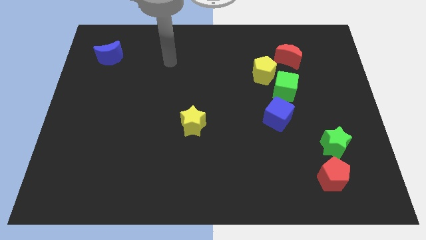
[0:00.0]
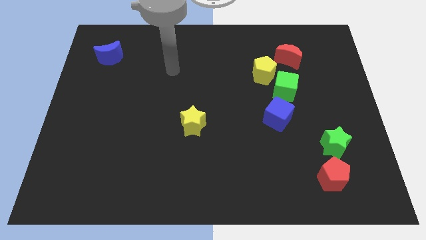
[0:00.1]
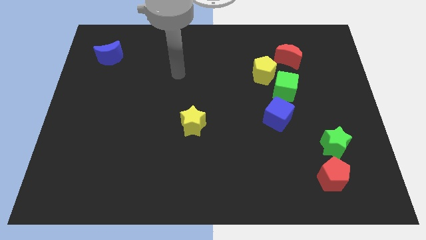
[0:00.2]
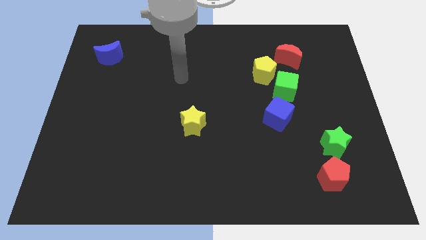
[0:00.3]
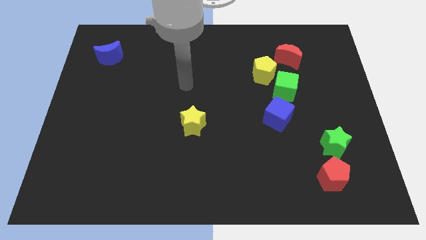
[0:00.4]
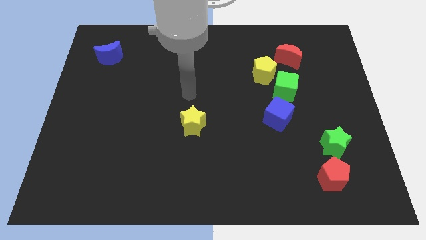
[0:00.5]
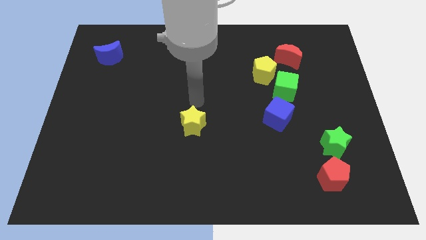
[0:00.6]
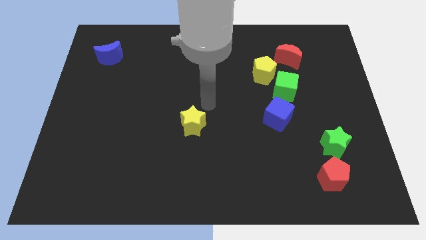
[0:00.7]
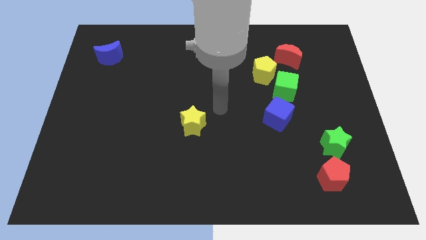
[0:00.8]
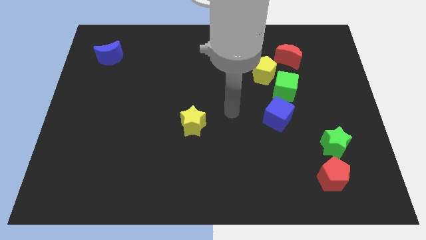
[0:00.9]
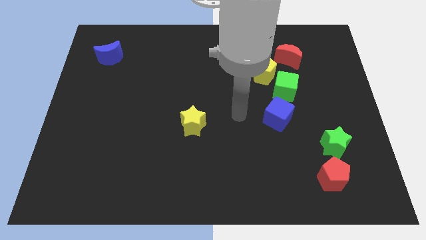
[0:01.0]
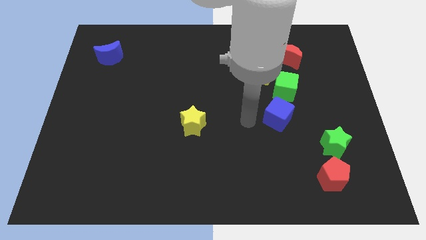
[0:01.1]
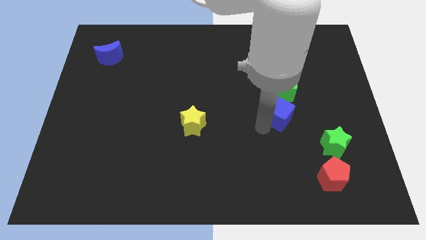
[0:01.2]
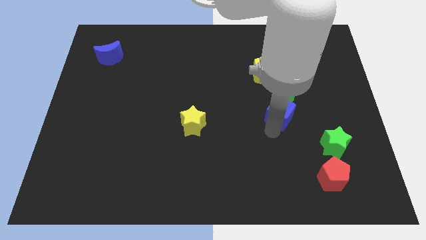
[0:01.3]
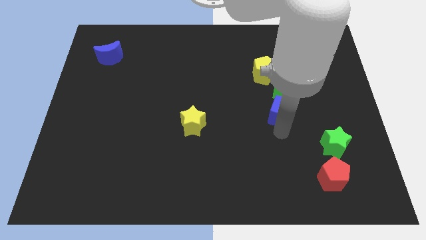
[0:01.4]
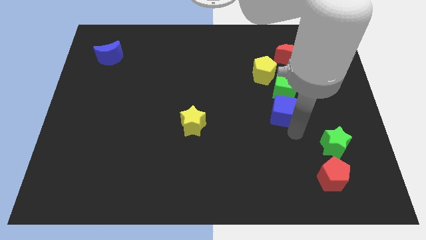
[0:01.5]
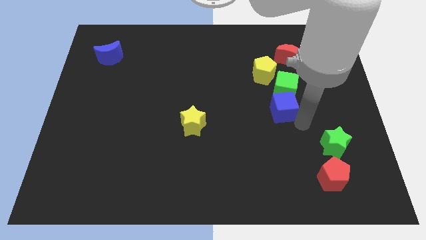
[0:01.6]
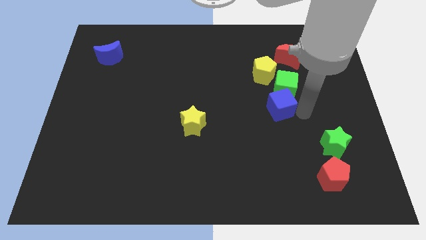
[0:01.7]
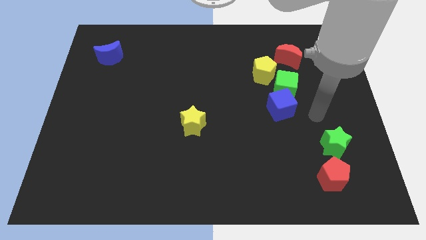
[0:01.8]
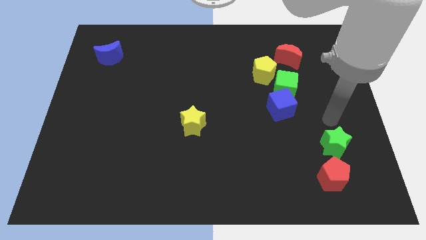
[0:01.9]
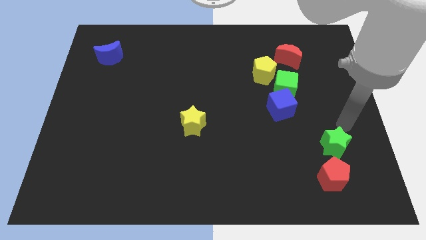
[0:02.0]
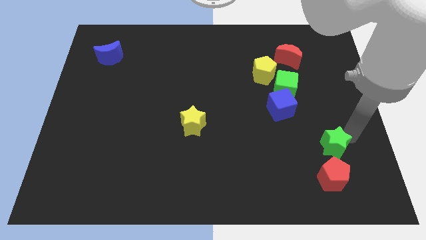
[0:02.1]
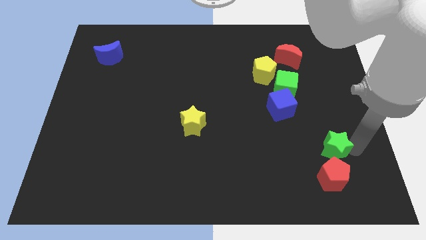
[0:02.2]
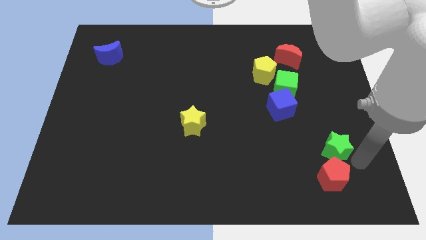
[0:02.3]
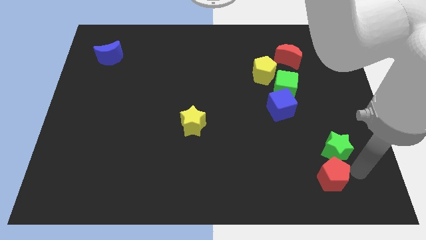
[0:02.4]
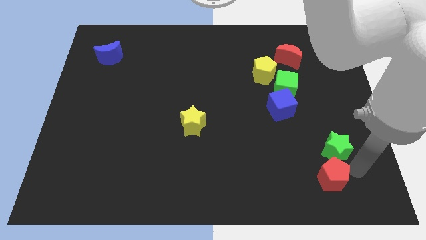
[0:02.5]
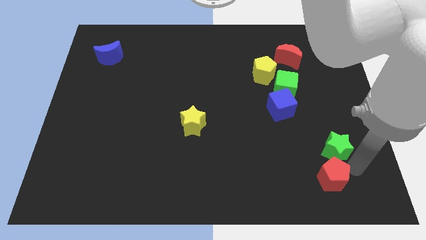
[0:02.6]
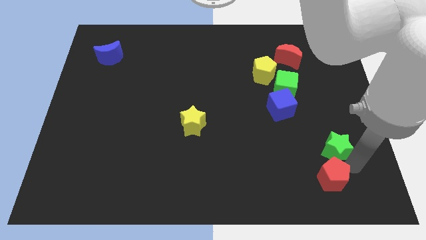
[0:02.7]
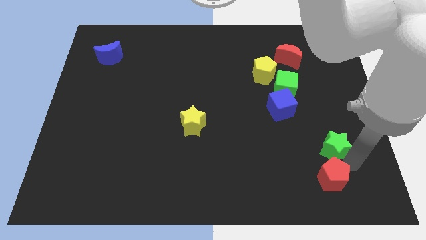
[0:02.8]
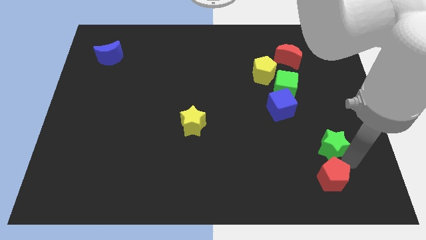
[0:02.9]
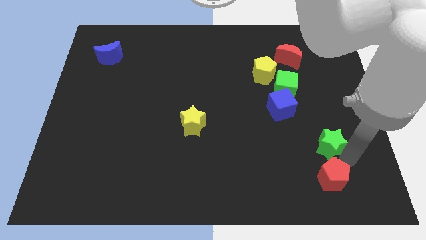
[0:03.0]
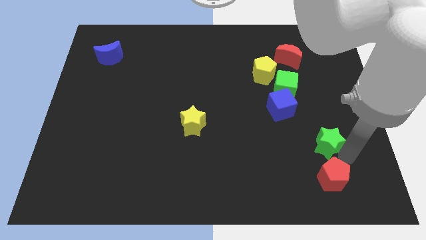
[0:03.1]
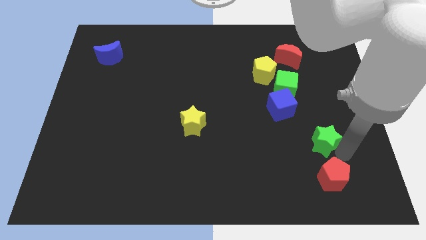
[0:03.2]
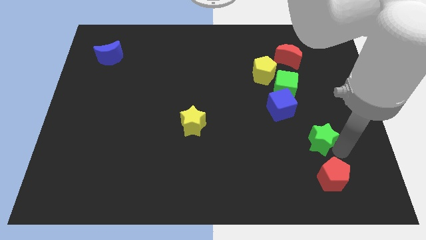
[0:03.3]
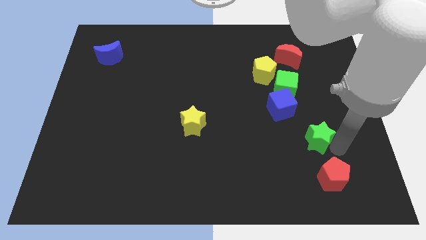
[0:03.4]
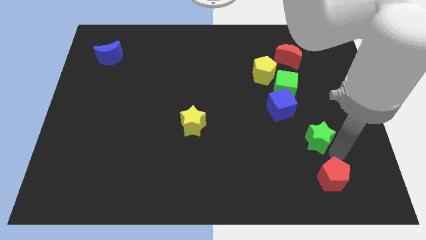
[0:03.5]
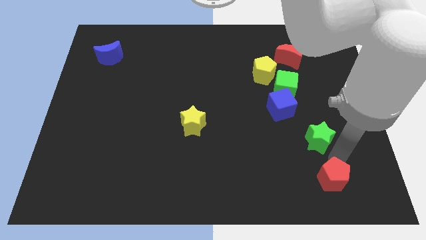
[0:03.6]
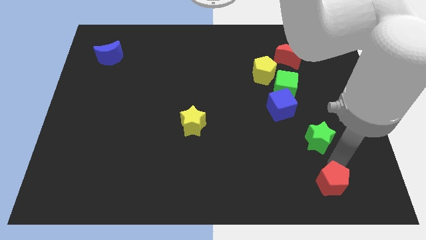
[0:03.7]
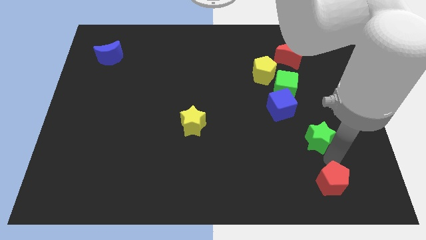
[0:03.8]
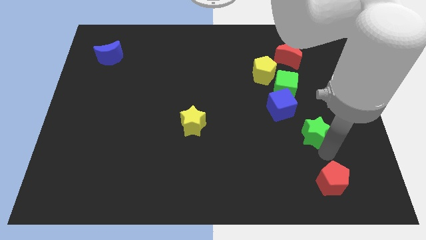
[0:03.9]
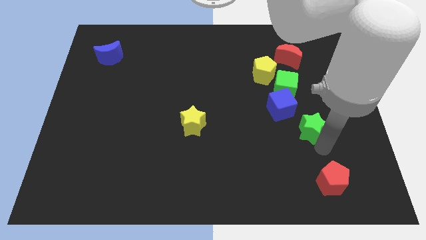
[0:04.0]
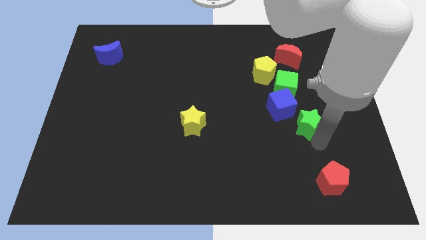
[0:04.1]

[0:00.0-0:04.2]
push the green star up and then to the left a bit

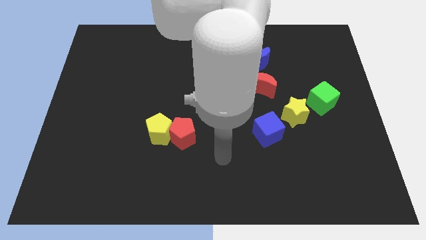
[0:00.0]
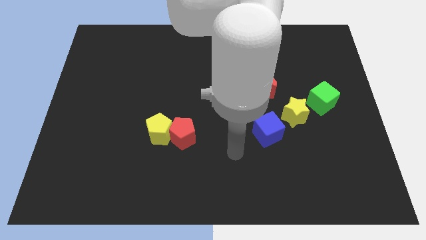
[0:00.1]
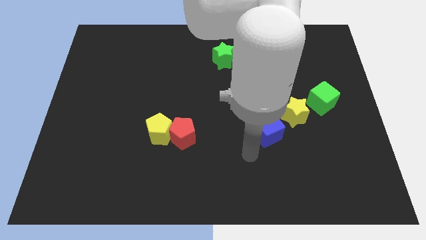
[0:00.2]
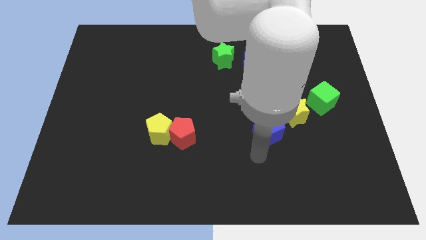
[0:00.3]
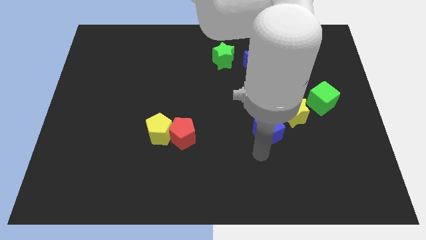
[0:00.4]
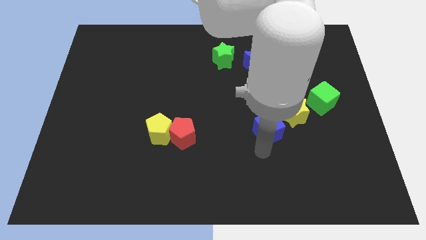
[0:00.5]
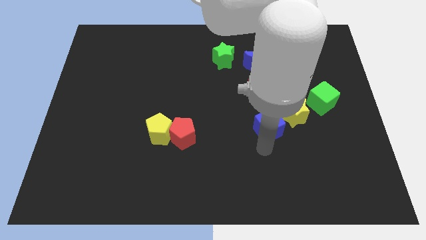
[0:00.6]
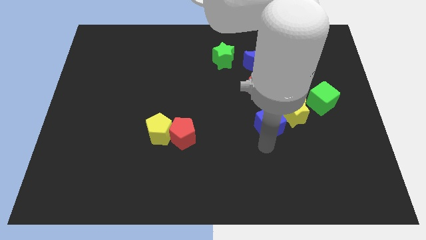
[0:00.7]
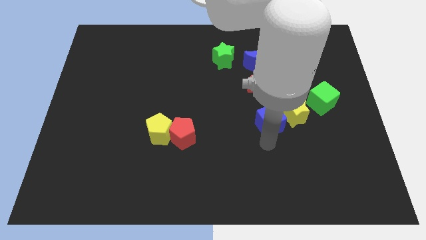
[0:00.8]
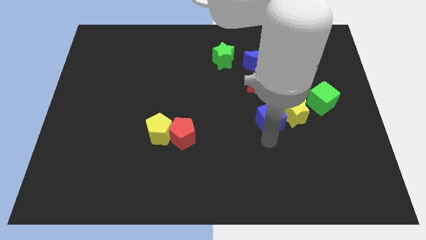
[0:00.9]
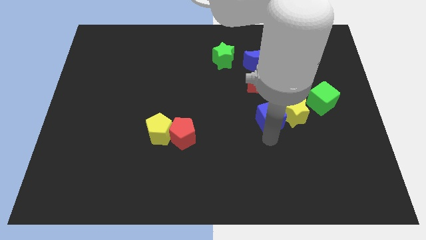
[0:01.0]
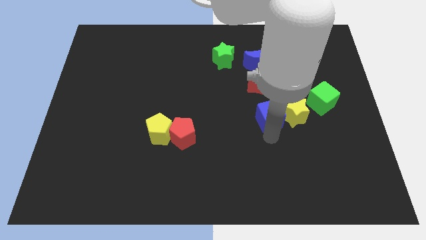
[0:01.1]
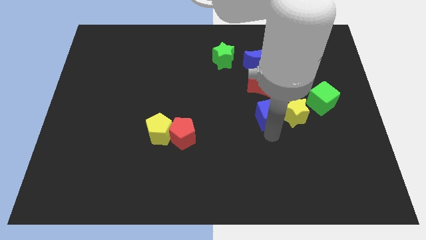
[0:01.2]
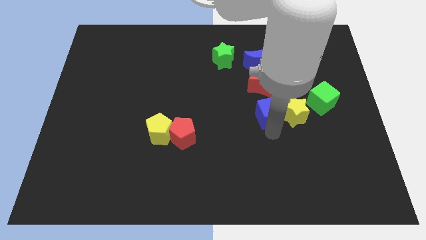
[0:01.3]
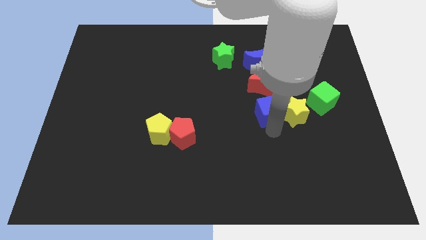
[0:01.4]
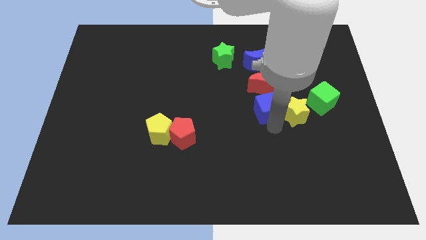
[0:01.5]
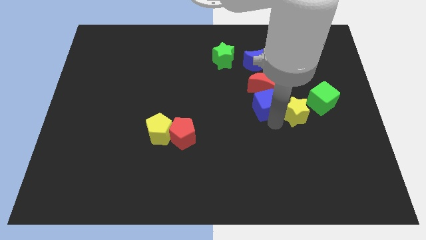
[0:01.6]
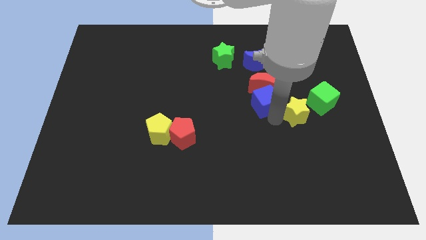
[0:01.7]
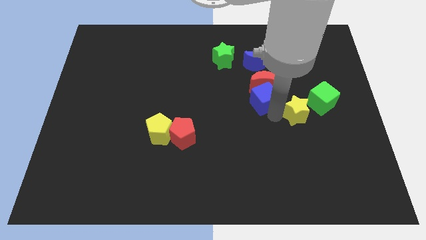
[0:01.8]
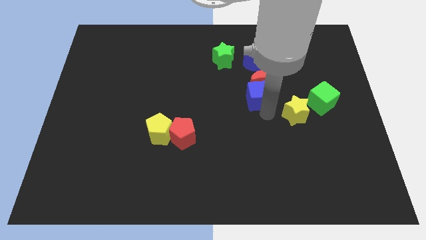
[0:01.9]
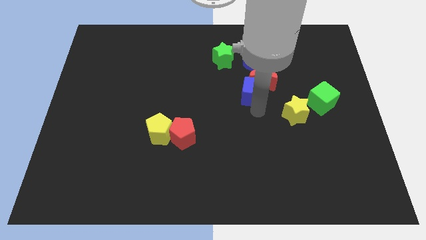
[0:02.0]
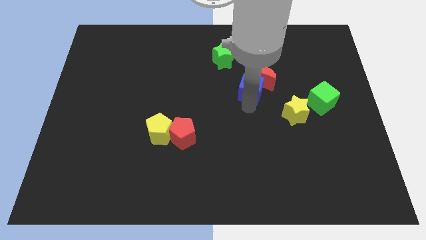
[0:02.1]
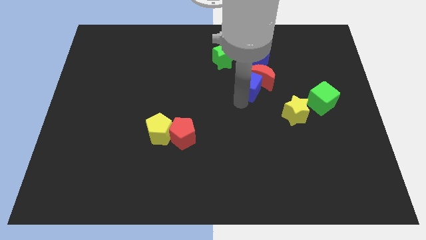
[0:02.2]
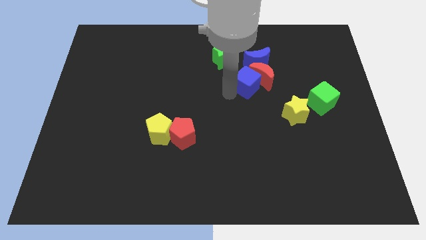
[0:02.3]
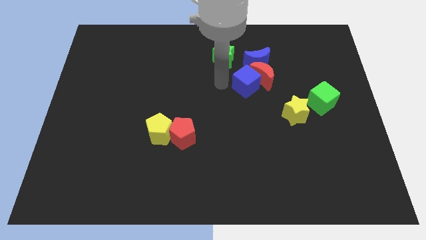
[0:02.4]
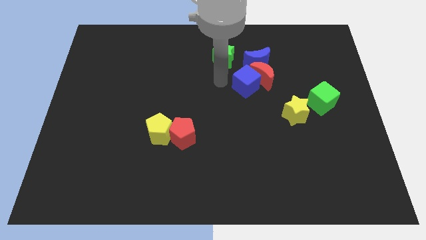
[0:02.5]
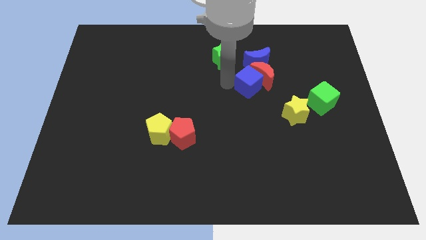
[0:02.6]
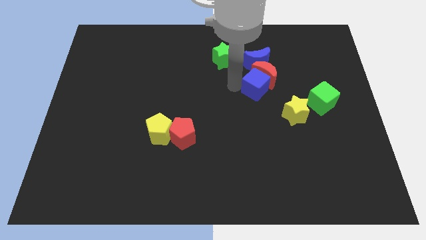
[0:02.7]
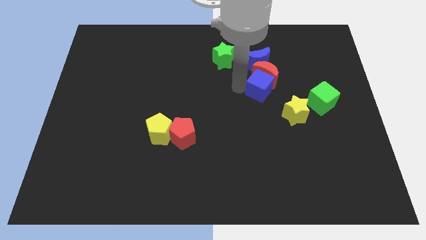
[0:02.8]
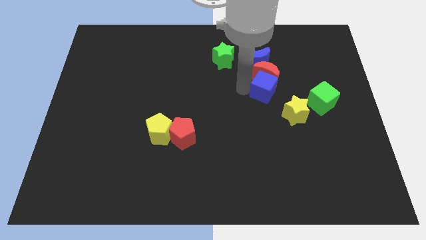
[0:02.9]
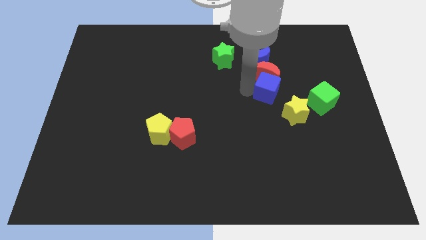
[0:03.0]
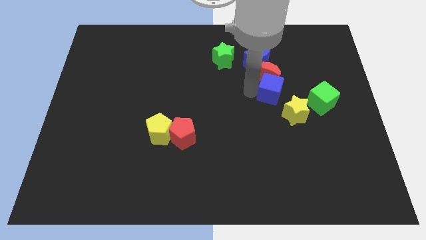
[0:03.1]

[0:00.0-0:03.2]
push the blue cube diagonally upwards and right a little bit

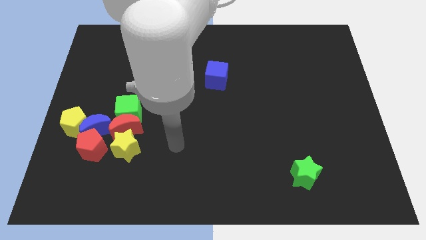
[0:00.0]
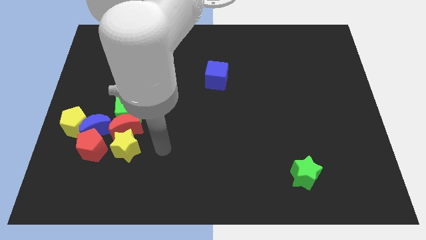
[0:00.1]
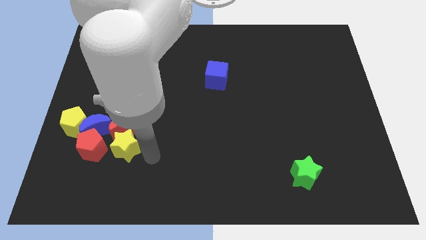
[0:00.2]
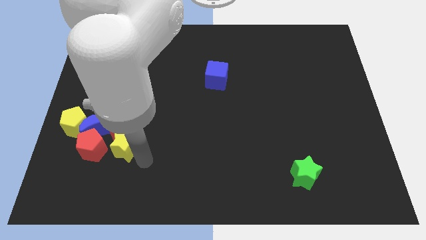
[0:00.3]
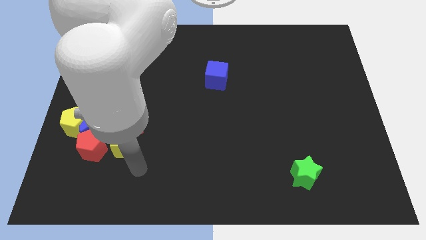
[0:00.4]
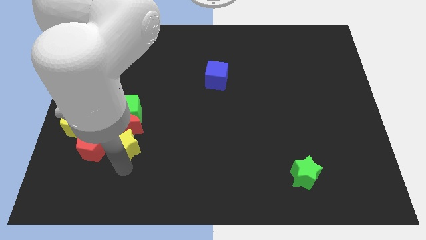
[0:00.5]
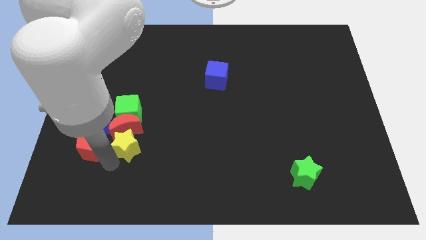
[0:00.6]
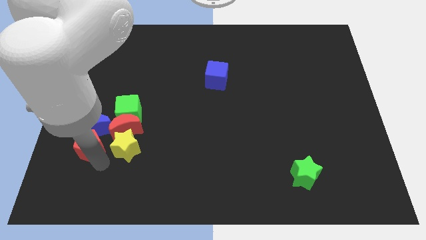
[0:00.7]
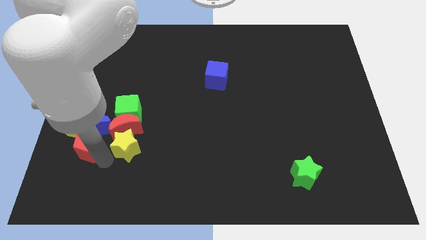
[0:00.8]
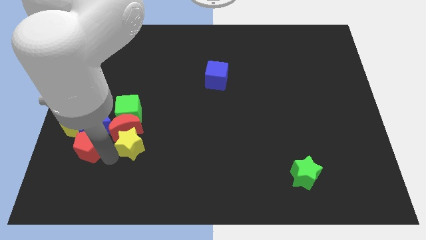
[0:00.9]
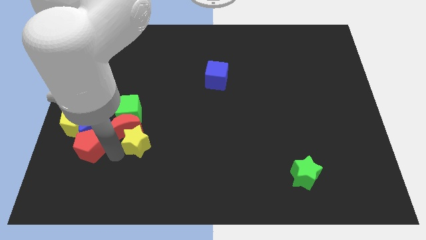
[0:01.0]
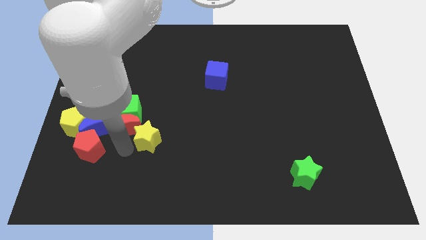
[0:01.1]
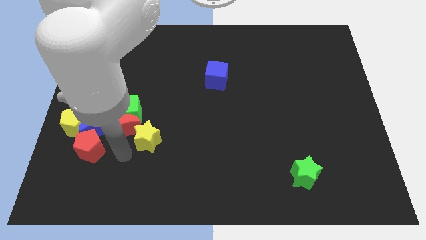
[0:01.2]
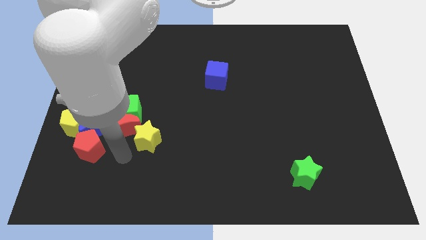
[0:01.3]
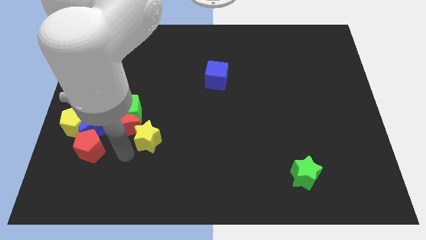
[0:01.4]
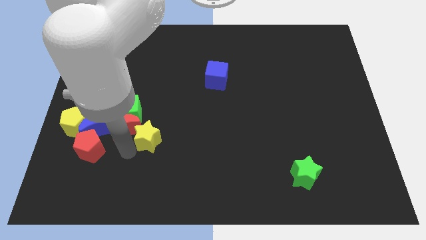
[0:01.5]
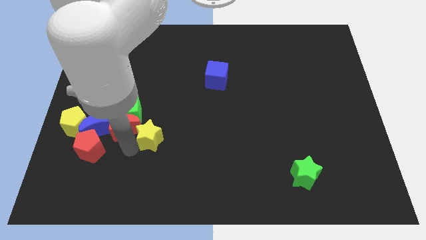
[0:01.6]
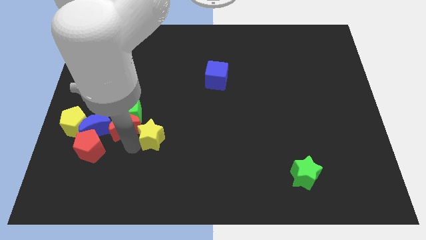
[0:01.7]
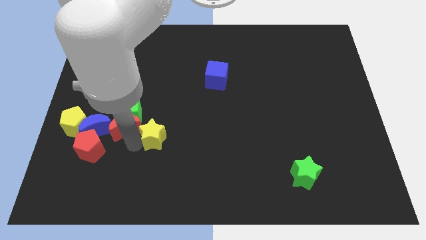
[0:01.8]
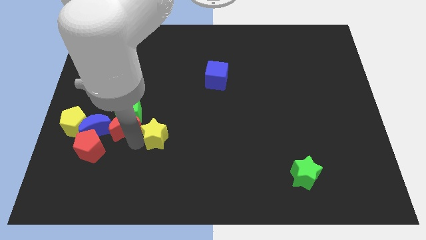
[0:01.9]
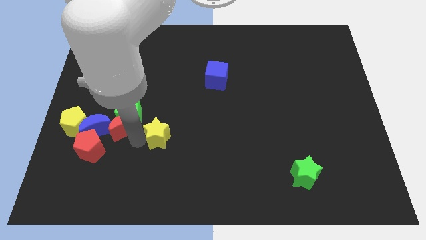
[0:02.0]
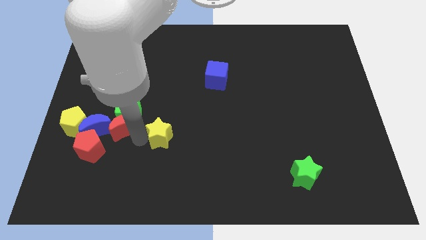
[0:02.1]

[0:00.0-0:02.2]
move the yellow star upwards and right diagonally a bit
